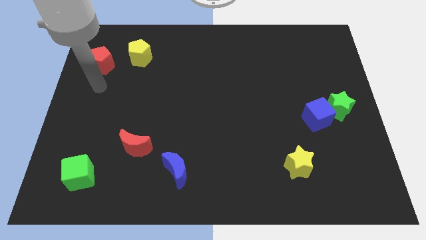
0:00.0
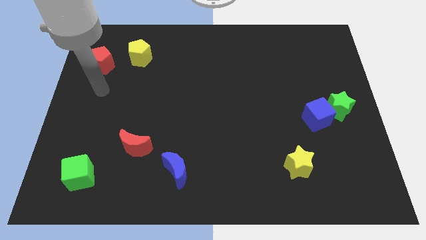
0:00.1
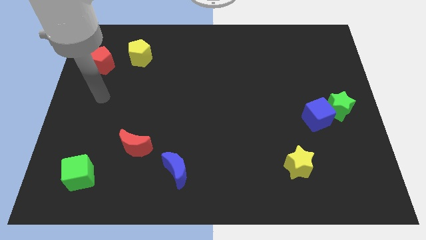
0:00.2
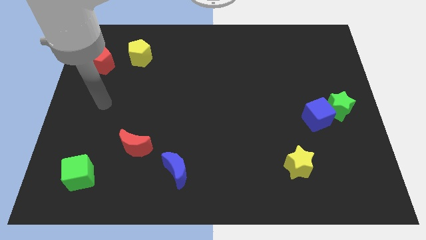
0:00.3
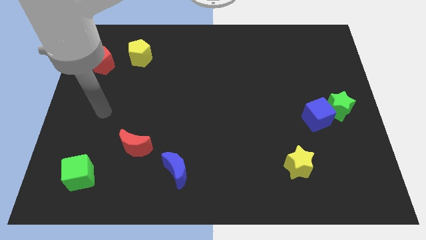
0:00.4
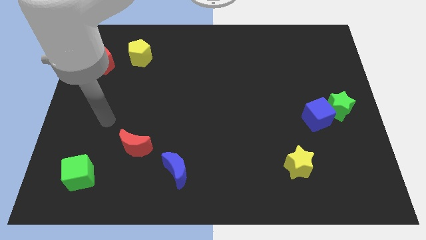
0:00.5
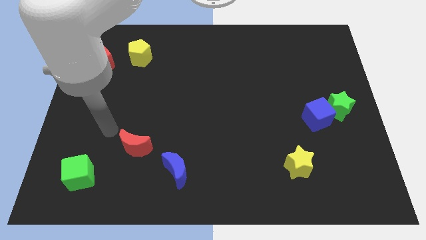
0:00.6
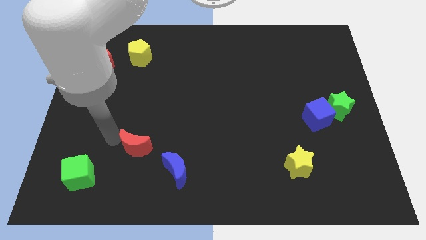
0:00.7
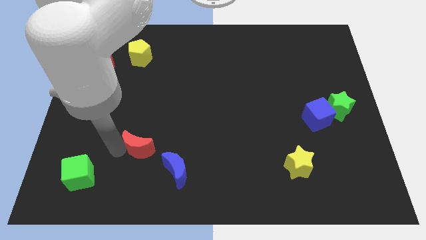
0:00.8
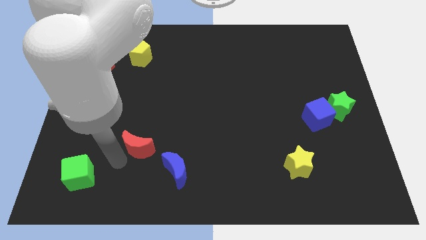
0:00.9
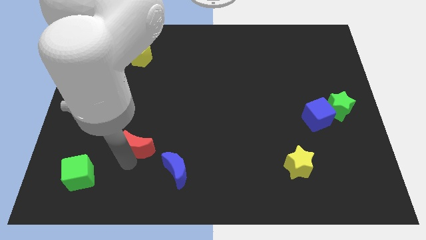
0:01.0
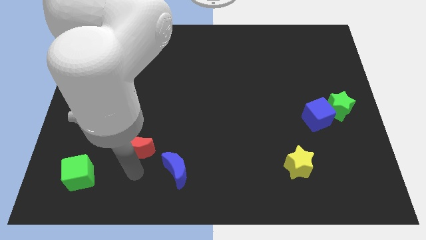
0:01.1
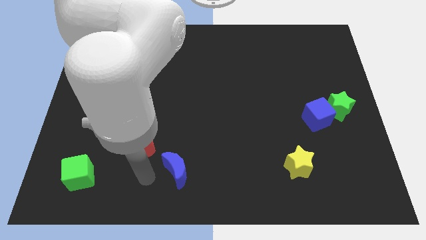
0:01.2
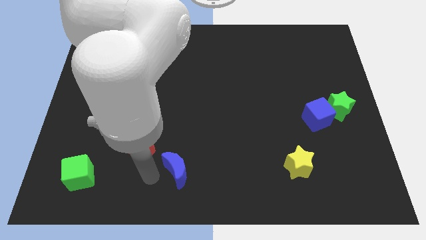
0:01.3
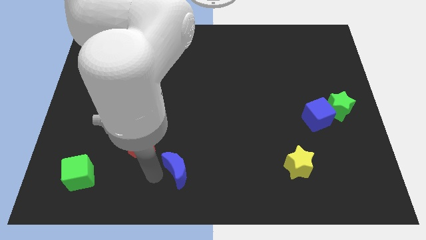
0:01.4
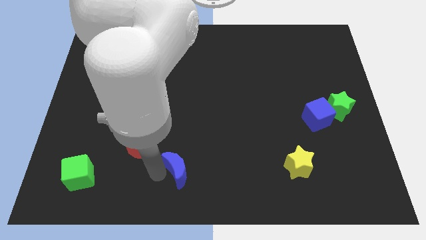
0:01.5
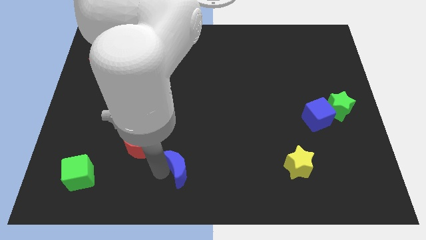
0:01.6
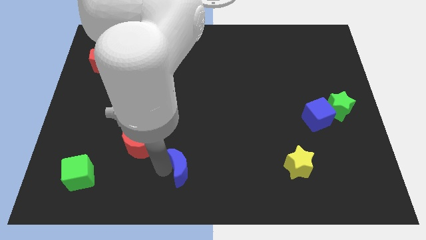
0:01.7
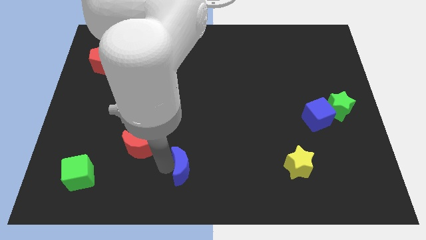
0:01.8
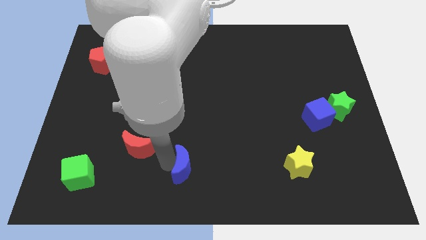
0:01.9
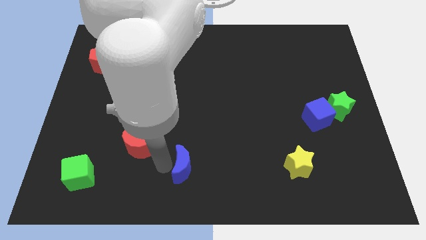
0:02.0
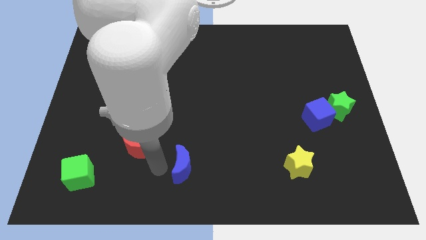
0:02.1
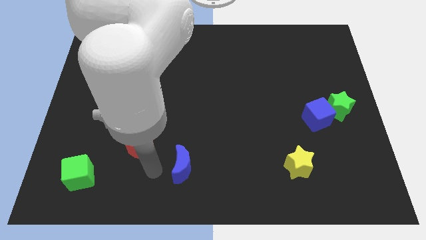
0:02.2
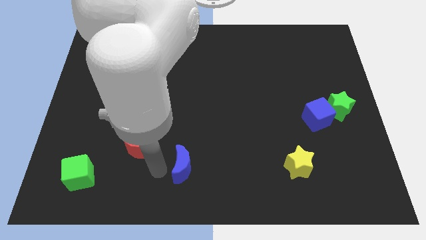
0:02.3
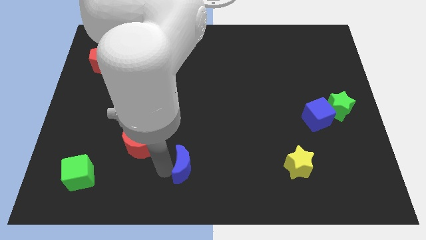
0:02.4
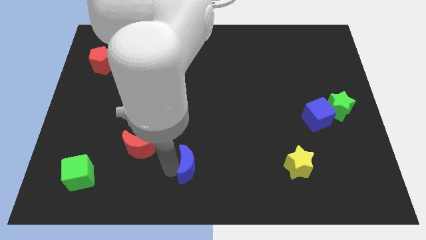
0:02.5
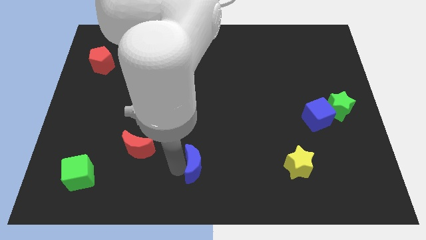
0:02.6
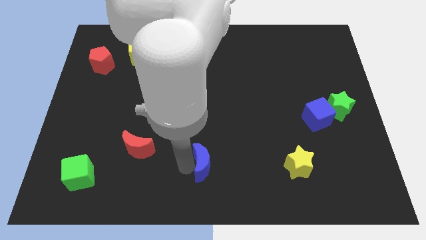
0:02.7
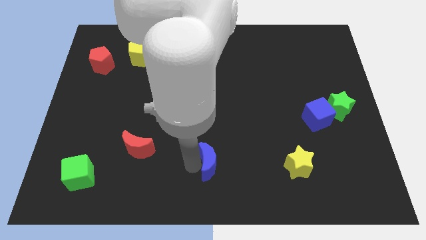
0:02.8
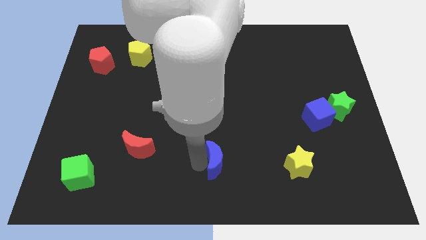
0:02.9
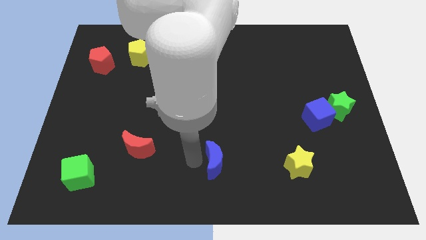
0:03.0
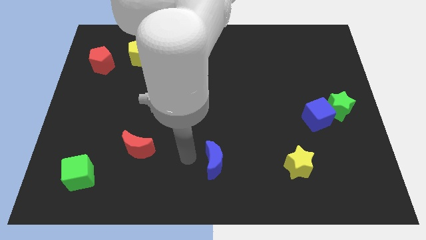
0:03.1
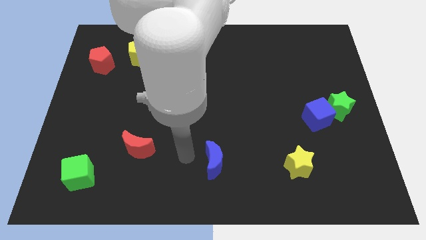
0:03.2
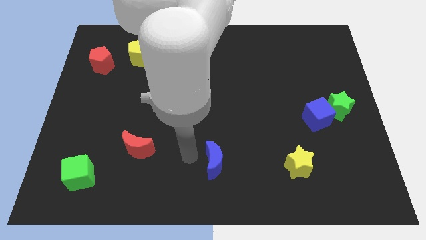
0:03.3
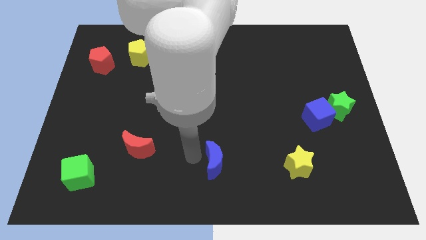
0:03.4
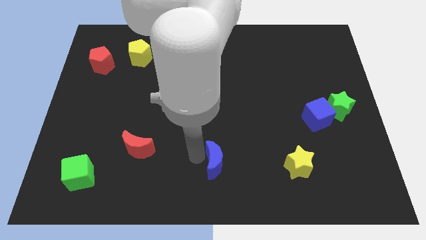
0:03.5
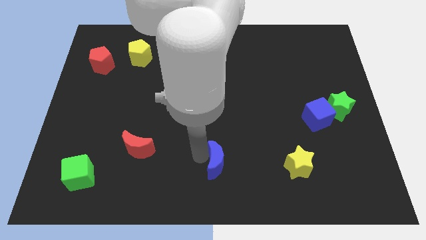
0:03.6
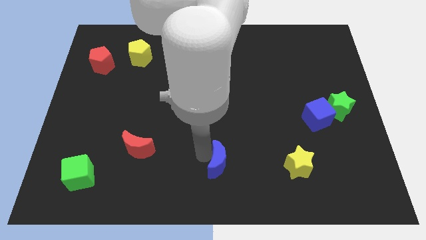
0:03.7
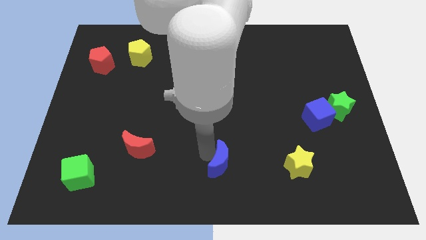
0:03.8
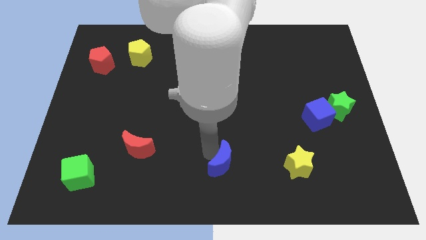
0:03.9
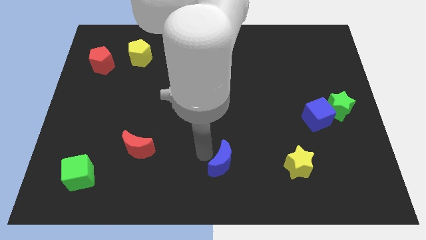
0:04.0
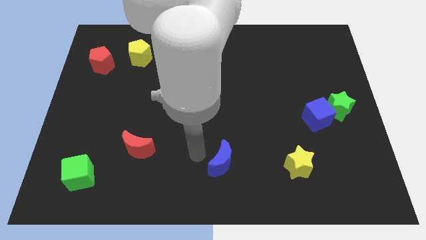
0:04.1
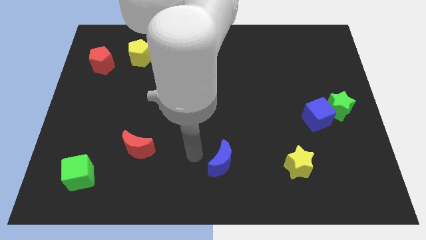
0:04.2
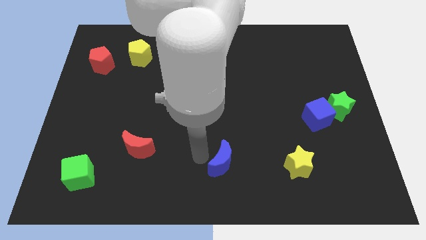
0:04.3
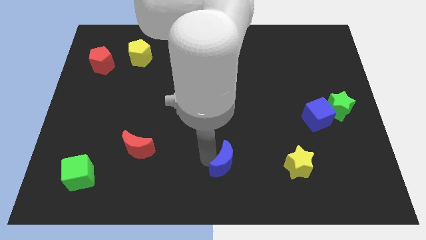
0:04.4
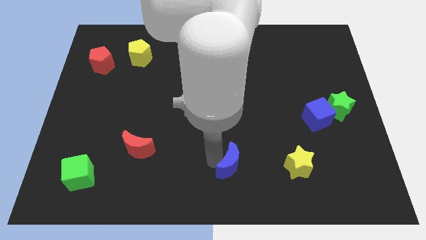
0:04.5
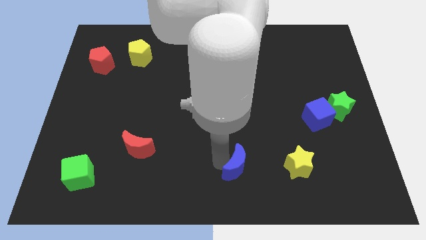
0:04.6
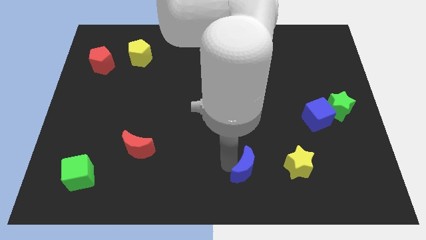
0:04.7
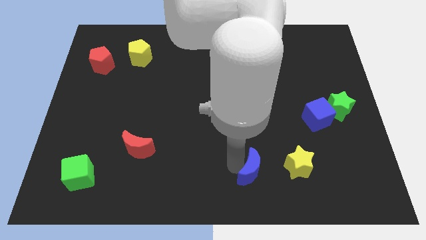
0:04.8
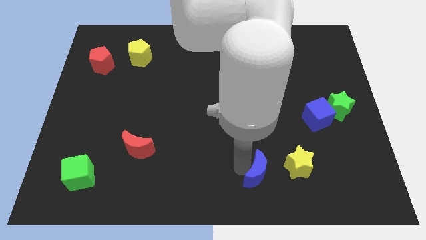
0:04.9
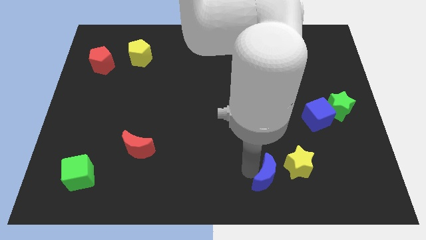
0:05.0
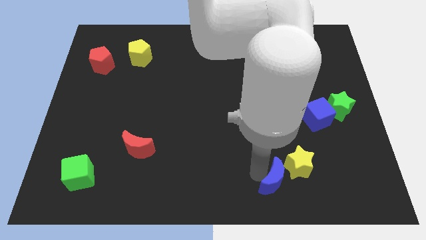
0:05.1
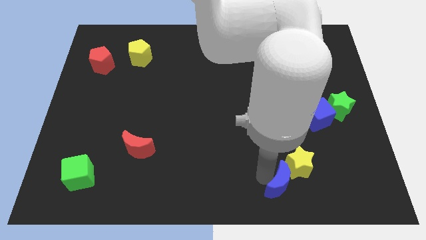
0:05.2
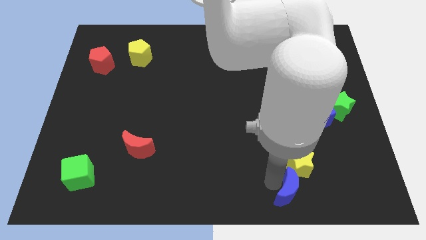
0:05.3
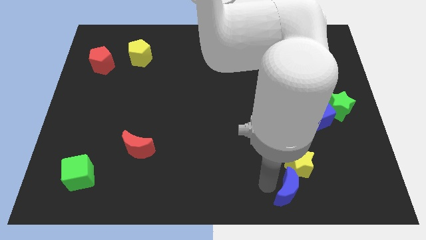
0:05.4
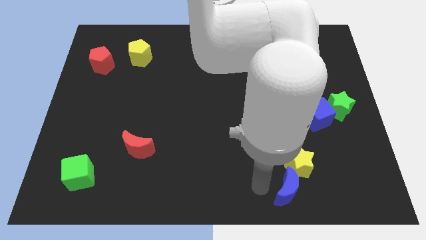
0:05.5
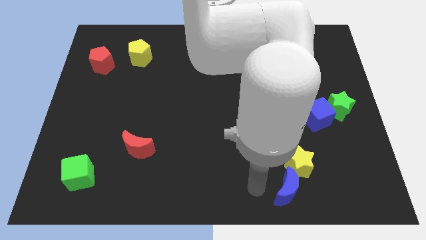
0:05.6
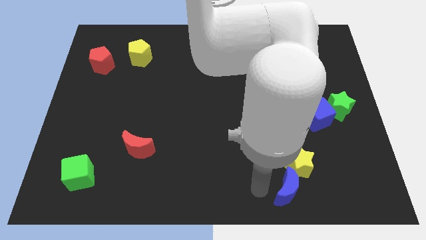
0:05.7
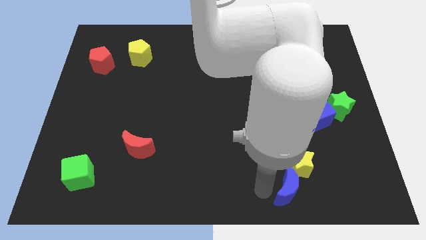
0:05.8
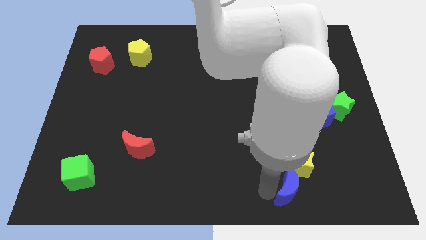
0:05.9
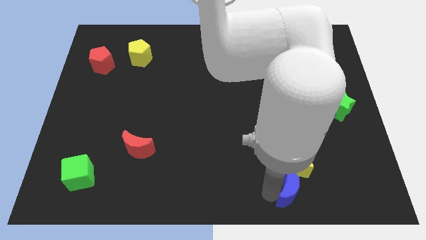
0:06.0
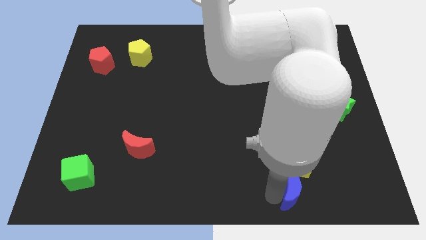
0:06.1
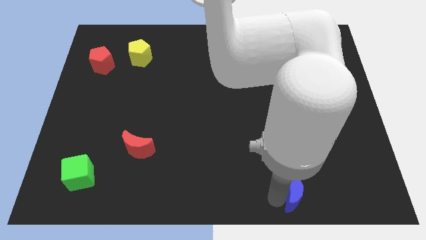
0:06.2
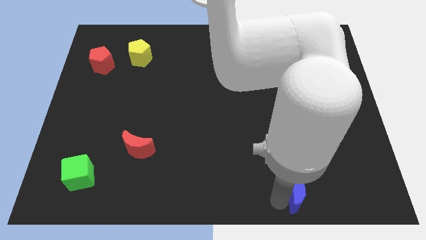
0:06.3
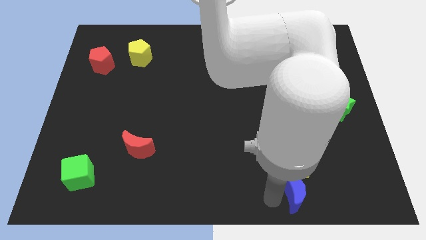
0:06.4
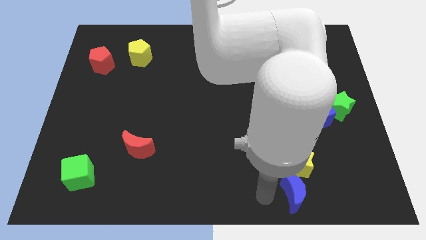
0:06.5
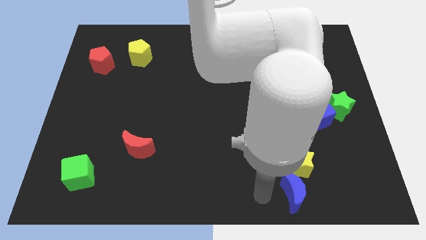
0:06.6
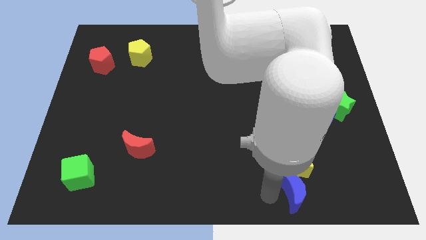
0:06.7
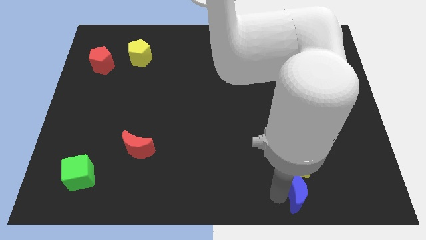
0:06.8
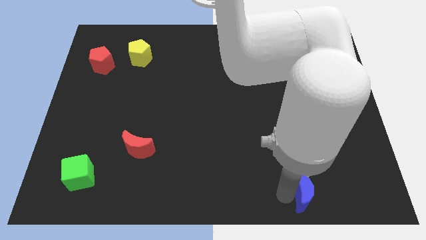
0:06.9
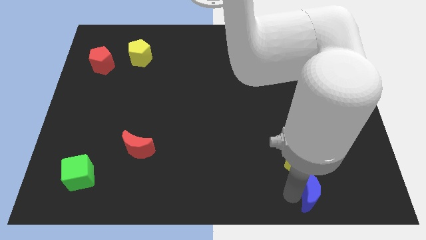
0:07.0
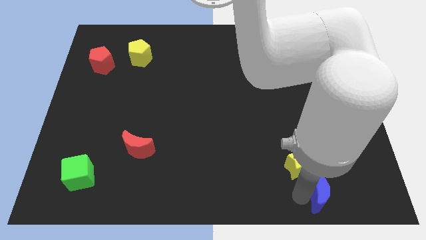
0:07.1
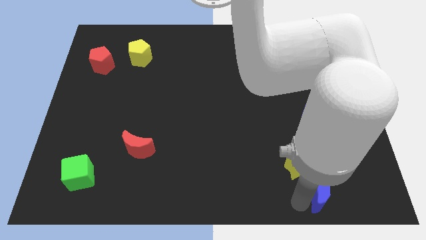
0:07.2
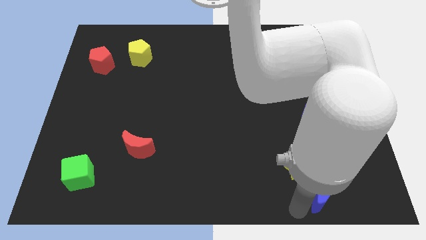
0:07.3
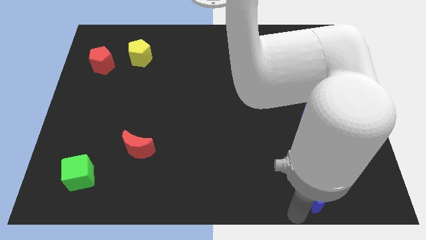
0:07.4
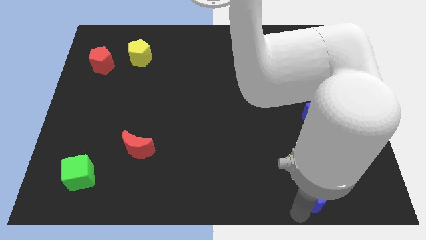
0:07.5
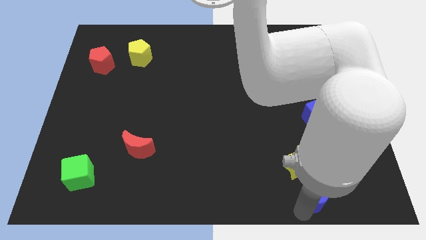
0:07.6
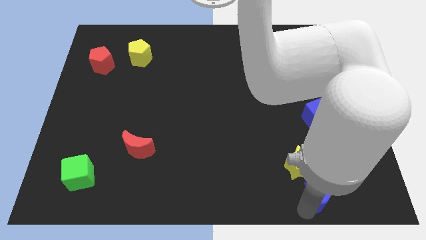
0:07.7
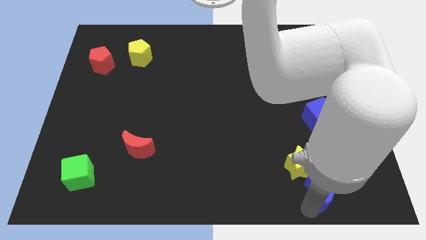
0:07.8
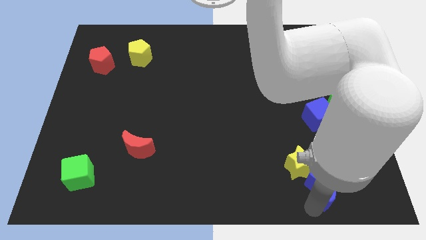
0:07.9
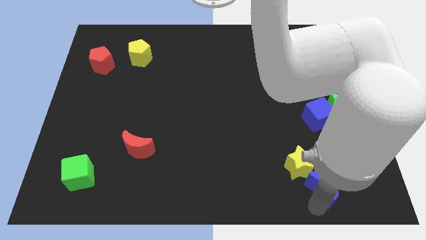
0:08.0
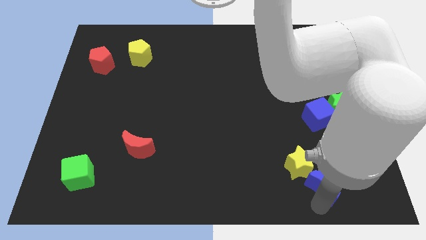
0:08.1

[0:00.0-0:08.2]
put the blue moon right of the yellow star
